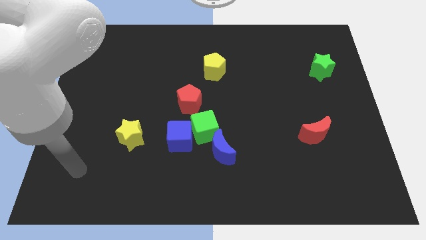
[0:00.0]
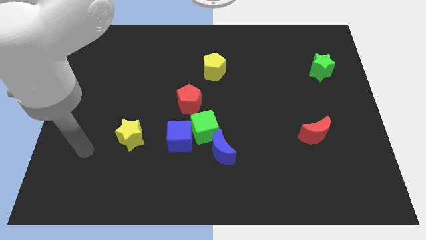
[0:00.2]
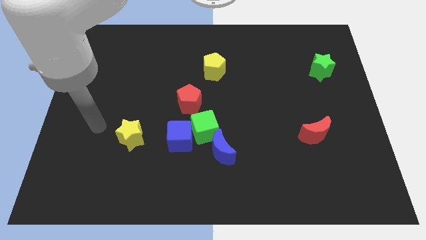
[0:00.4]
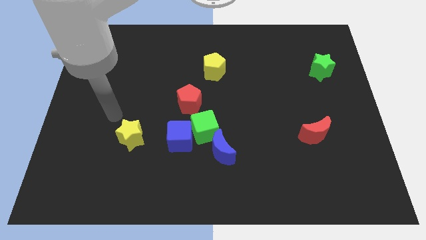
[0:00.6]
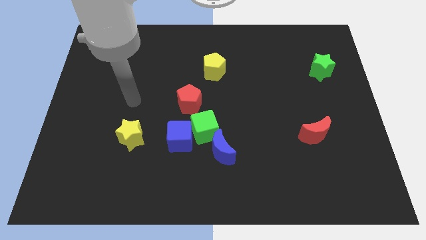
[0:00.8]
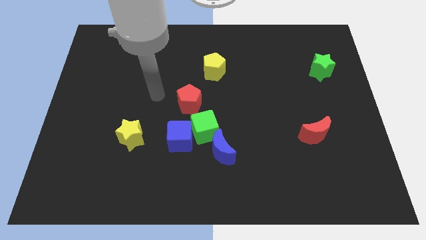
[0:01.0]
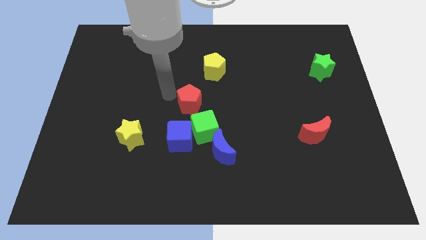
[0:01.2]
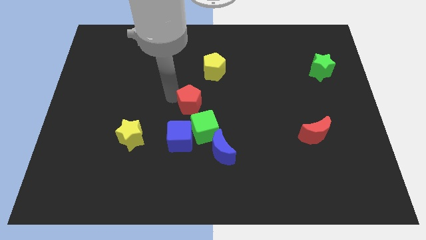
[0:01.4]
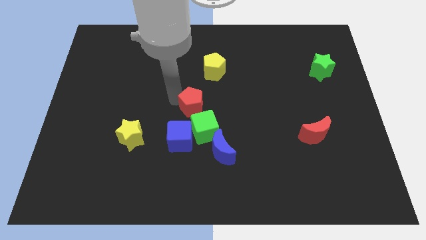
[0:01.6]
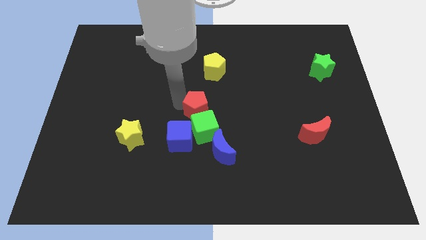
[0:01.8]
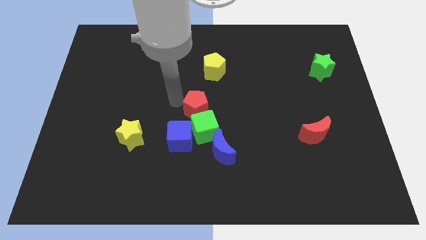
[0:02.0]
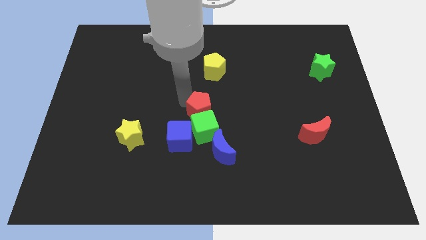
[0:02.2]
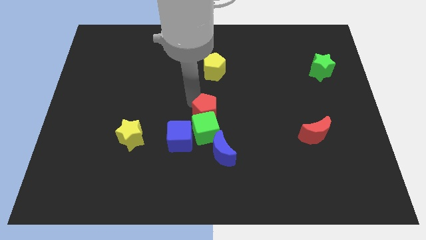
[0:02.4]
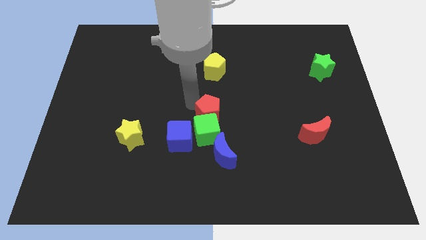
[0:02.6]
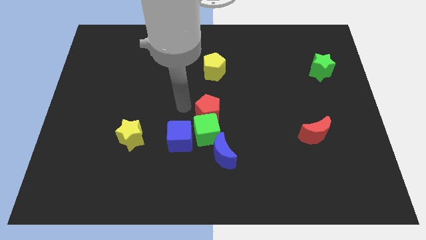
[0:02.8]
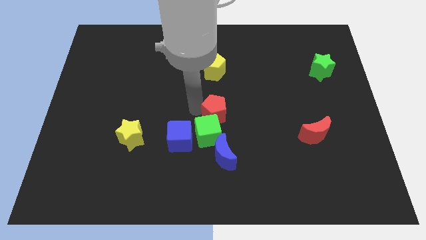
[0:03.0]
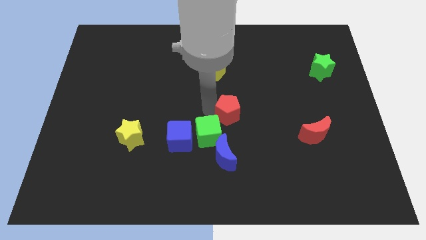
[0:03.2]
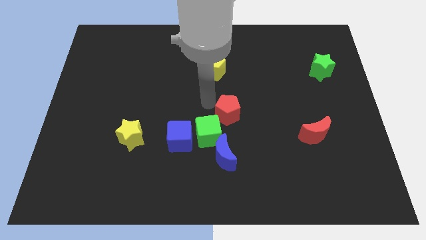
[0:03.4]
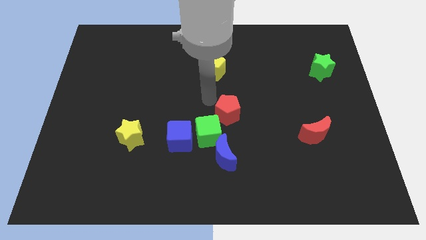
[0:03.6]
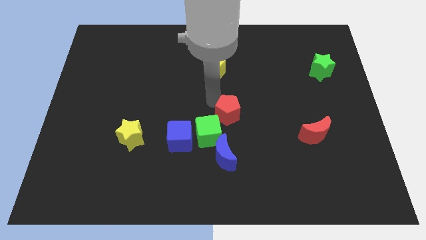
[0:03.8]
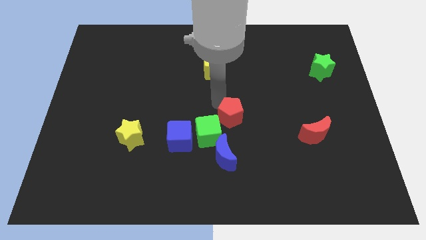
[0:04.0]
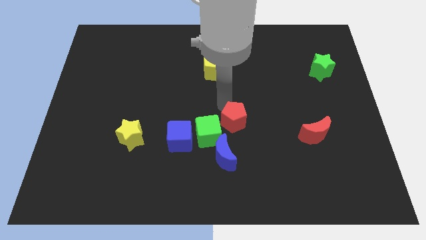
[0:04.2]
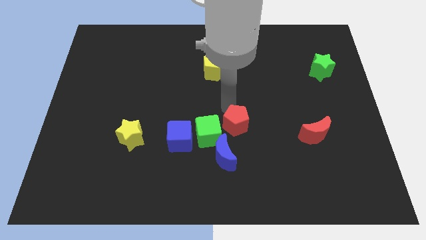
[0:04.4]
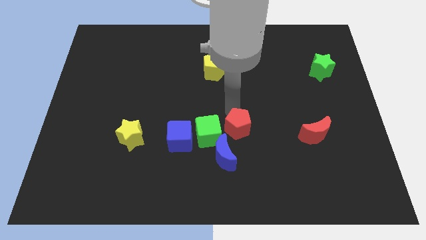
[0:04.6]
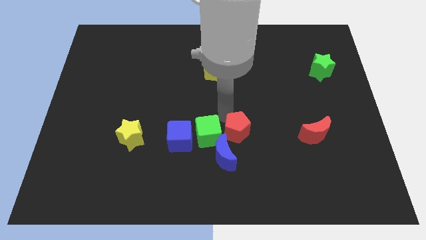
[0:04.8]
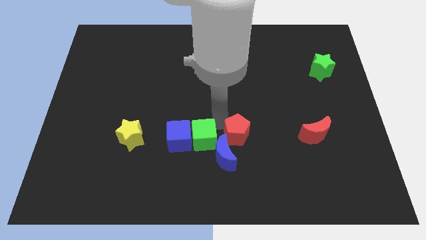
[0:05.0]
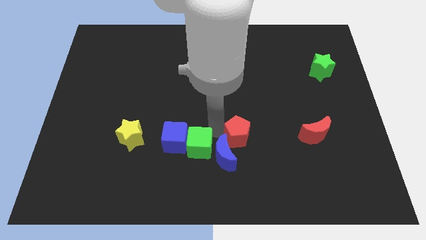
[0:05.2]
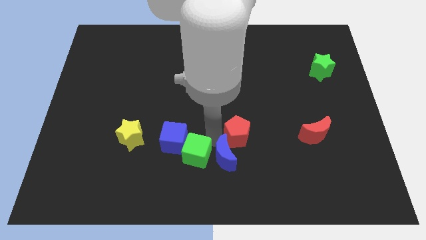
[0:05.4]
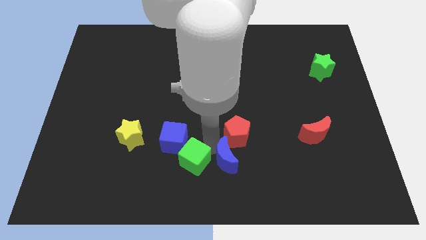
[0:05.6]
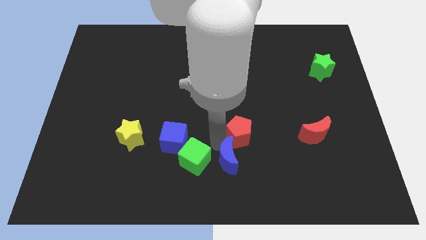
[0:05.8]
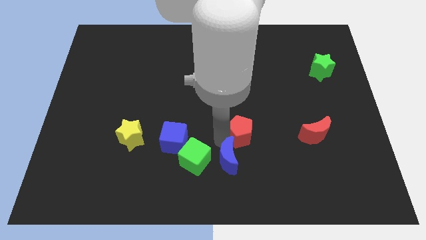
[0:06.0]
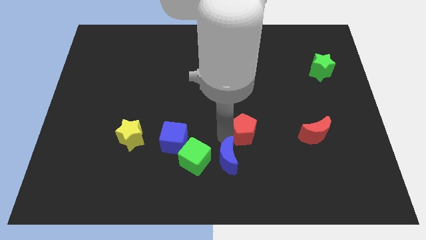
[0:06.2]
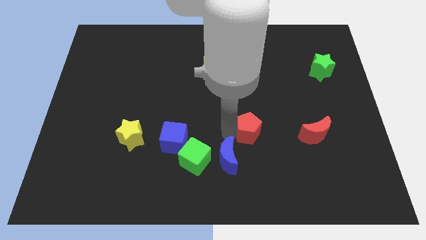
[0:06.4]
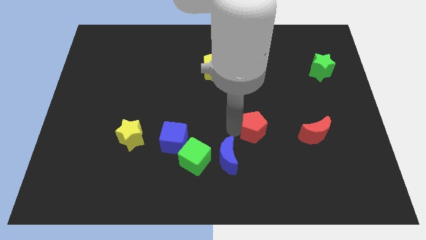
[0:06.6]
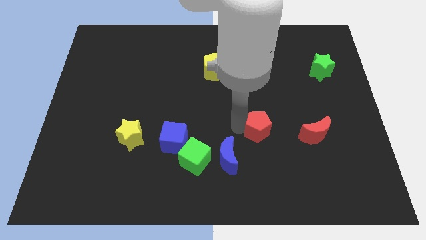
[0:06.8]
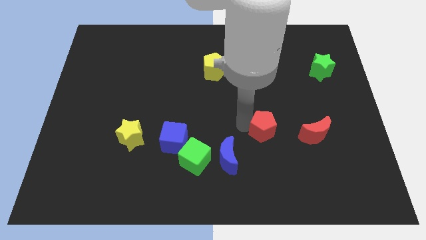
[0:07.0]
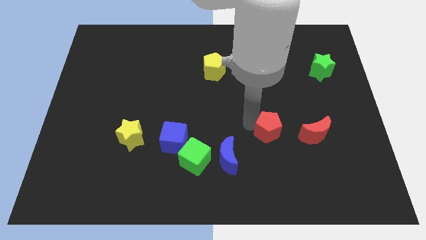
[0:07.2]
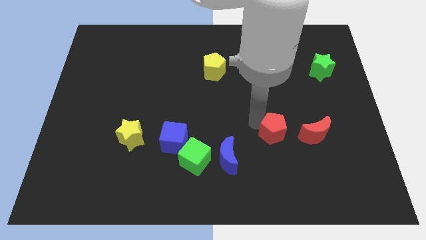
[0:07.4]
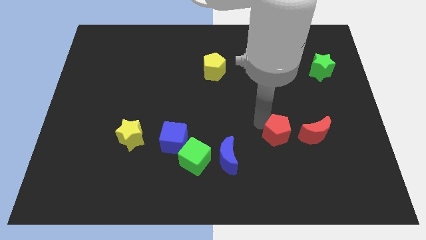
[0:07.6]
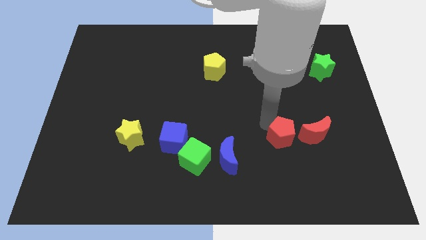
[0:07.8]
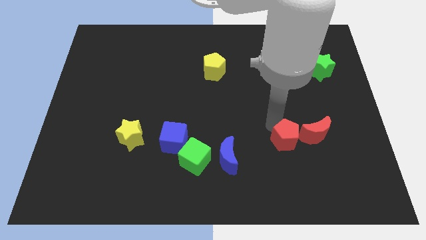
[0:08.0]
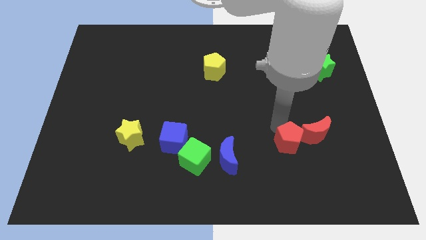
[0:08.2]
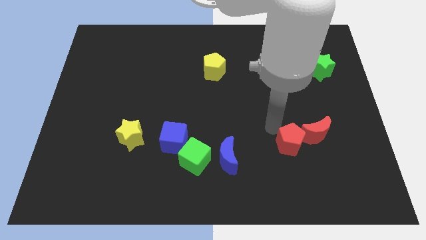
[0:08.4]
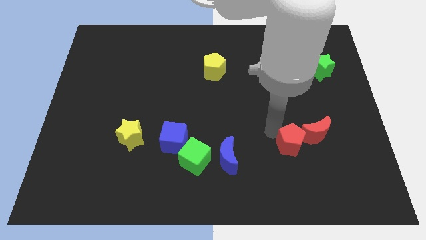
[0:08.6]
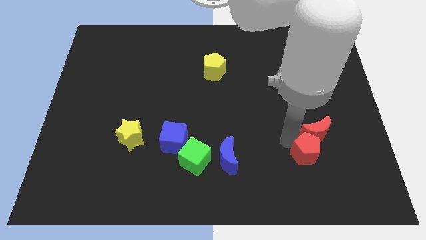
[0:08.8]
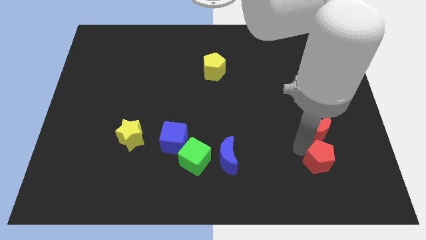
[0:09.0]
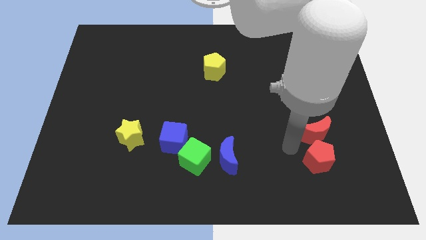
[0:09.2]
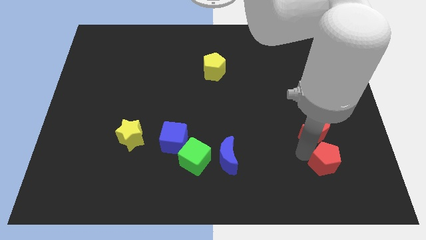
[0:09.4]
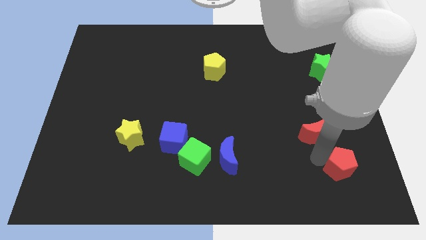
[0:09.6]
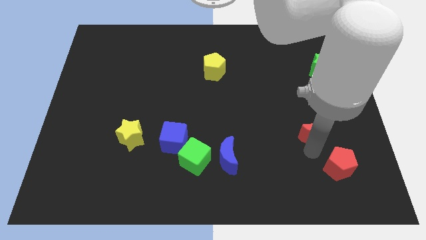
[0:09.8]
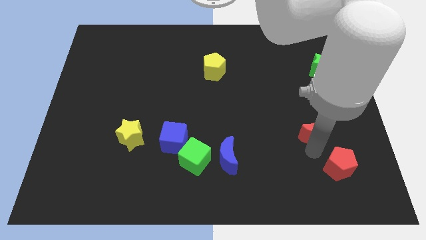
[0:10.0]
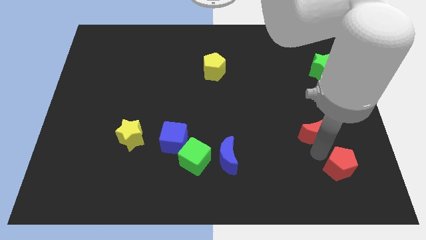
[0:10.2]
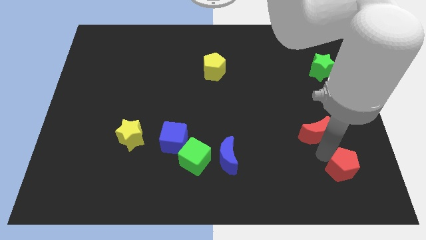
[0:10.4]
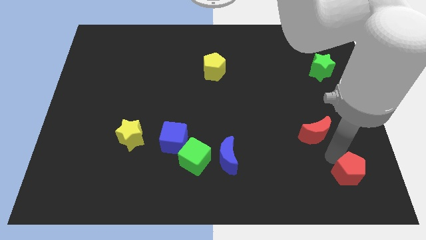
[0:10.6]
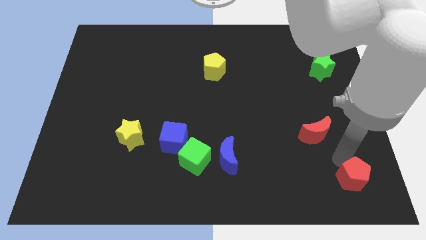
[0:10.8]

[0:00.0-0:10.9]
push the red pentagon to the lower right corner

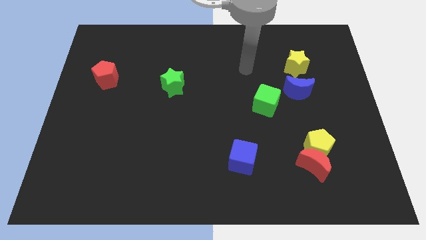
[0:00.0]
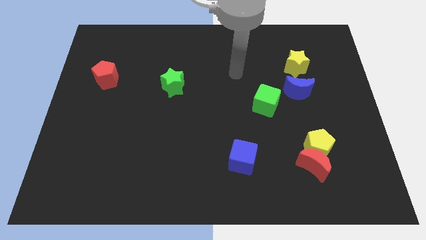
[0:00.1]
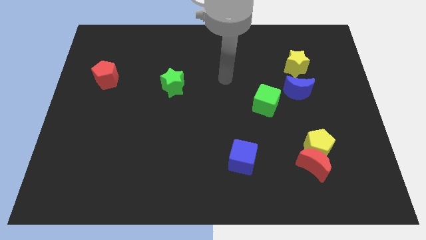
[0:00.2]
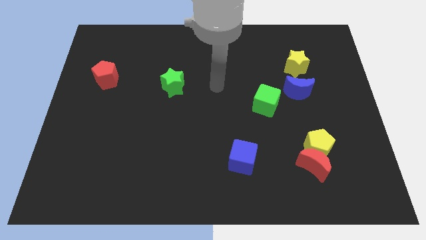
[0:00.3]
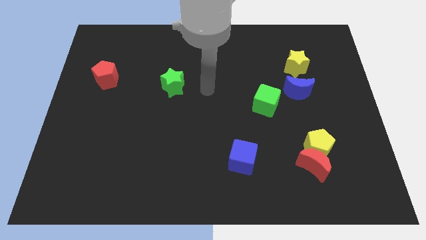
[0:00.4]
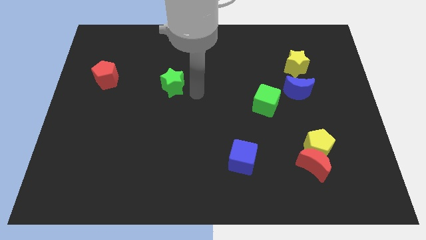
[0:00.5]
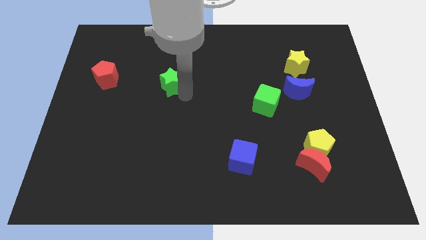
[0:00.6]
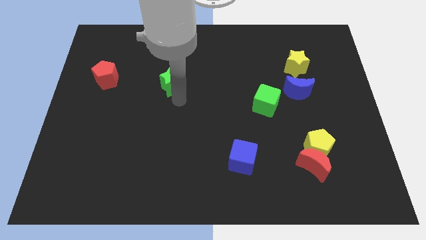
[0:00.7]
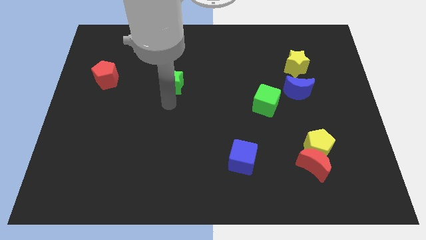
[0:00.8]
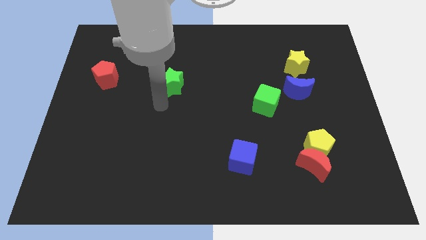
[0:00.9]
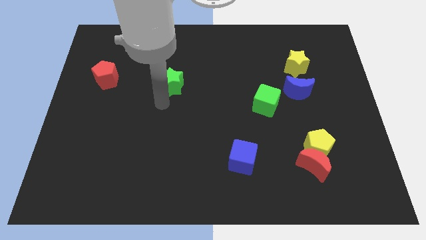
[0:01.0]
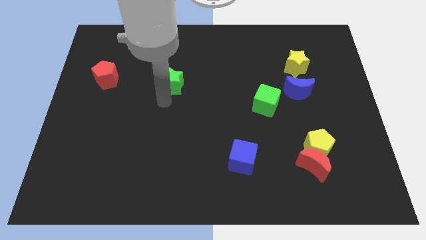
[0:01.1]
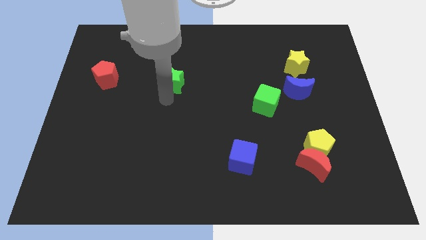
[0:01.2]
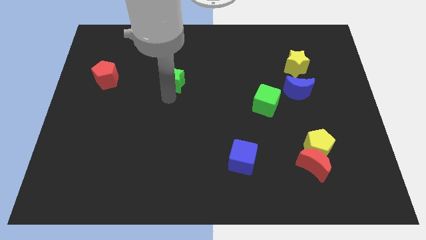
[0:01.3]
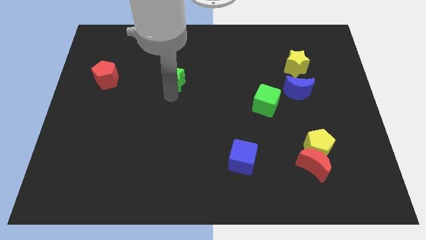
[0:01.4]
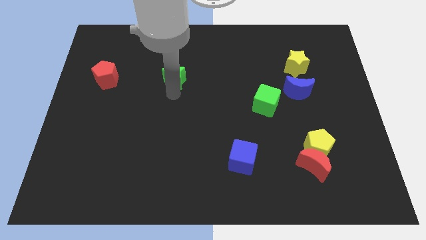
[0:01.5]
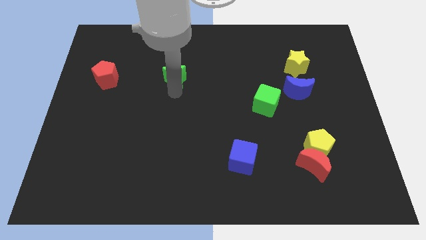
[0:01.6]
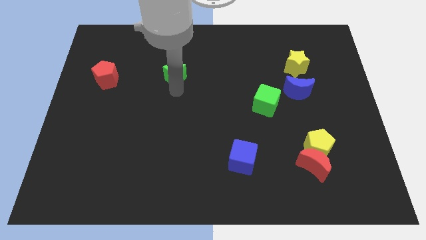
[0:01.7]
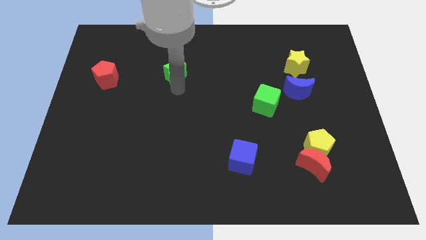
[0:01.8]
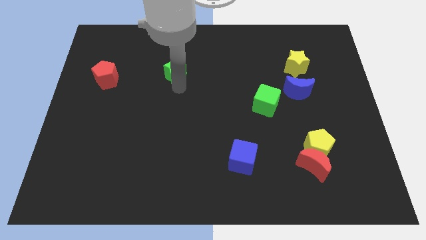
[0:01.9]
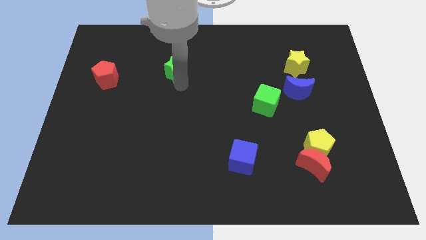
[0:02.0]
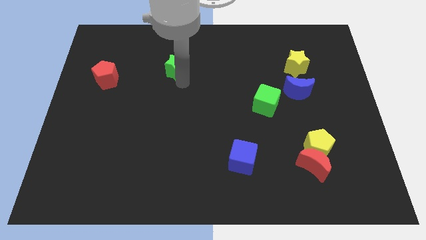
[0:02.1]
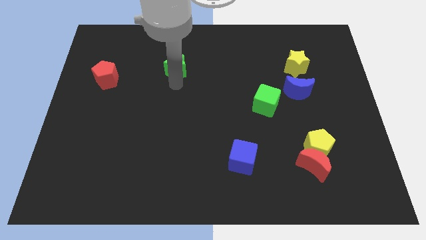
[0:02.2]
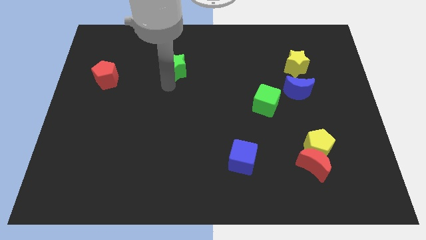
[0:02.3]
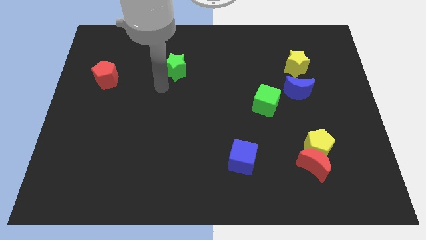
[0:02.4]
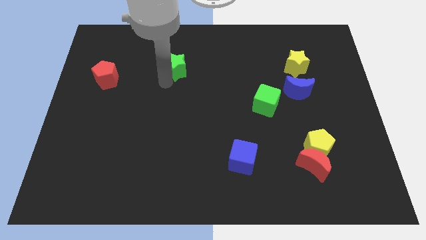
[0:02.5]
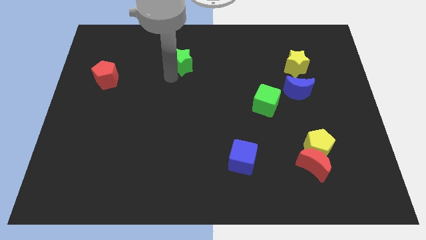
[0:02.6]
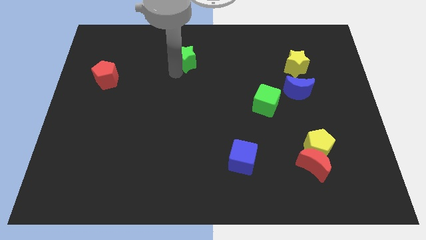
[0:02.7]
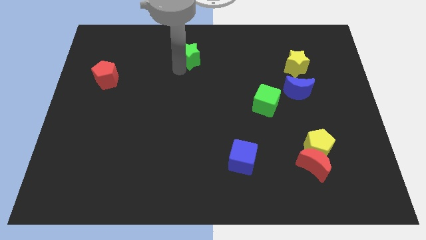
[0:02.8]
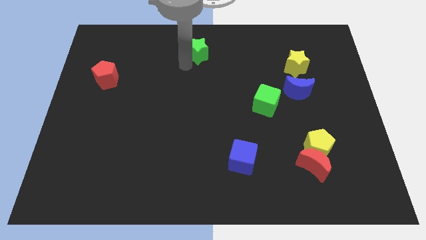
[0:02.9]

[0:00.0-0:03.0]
push the green star to the top
